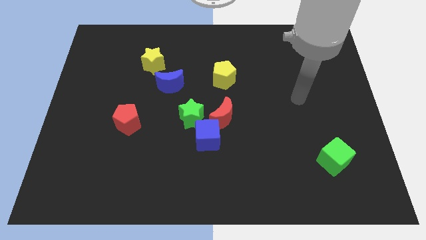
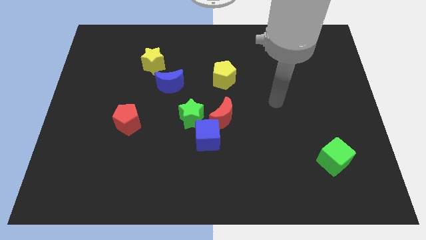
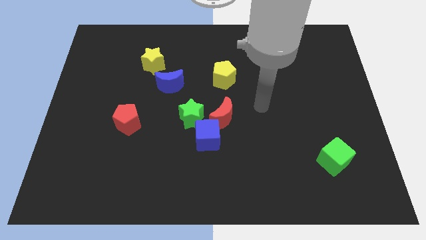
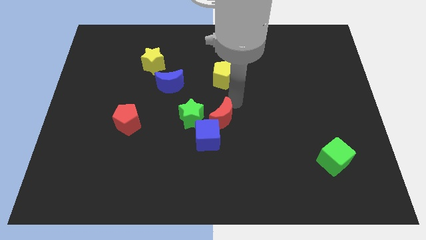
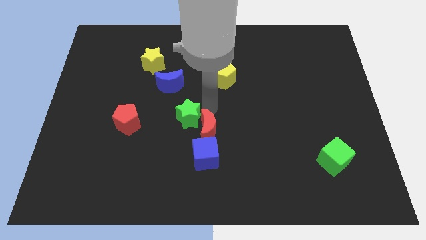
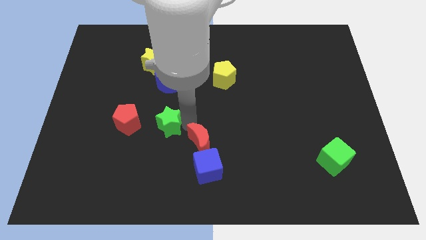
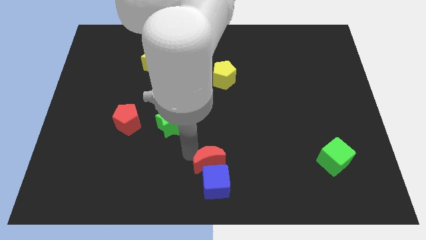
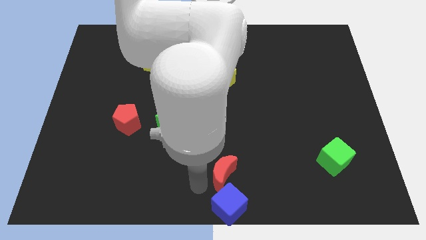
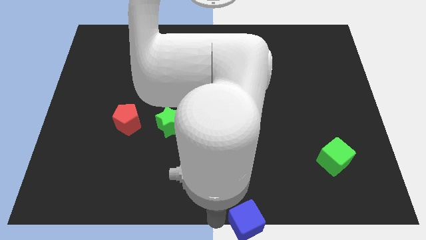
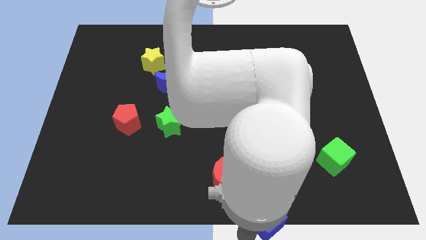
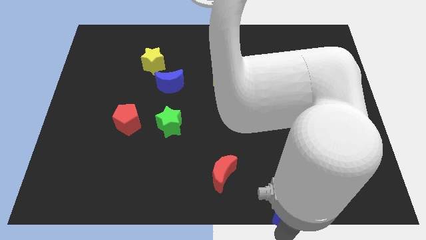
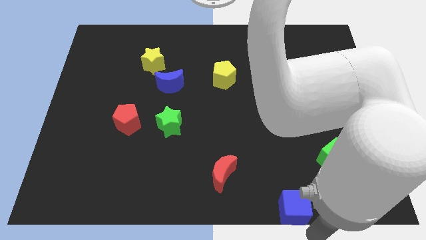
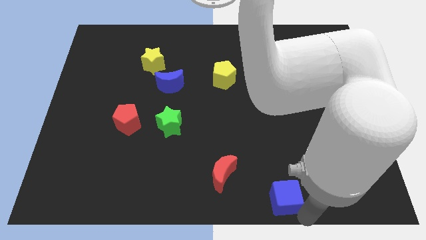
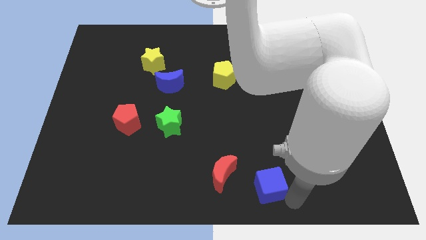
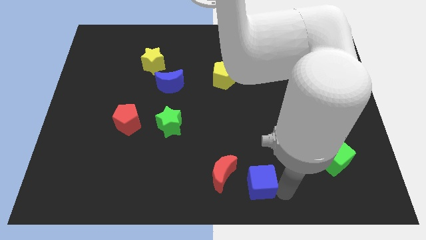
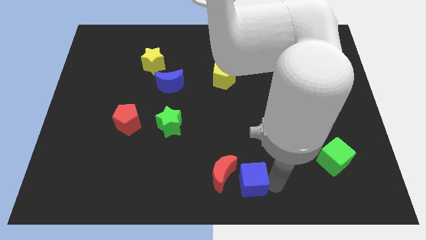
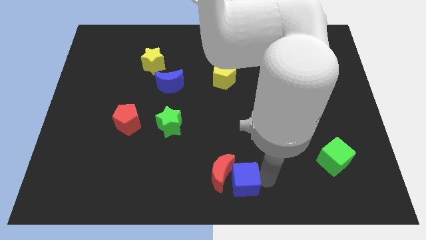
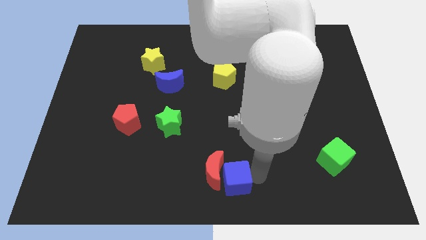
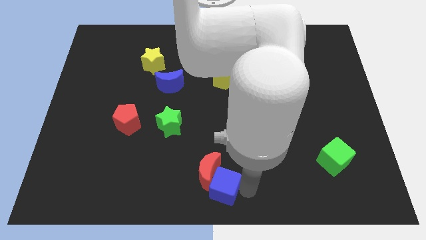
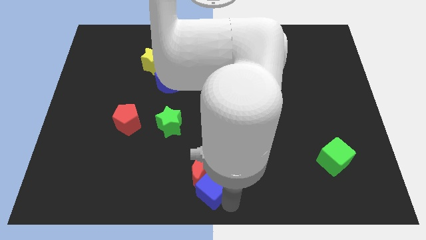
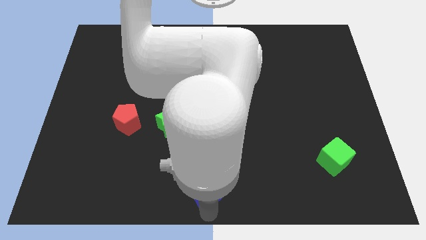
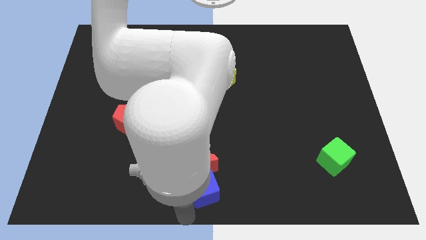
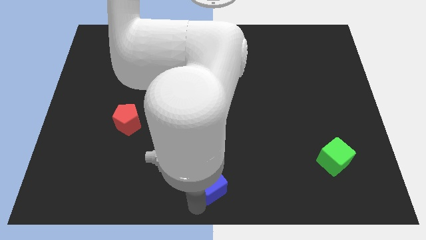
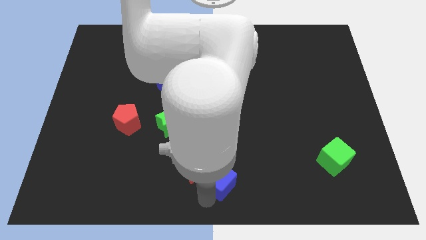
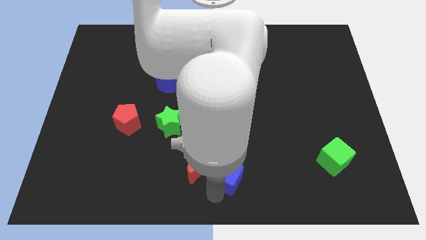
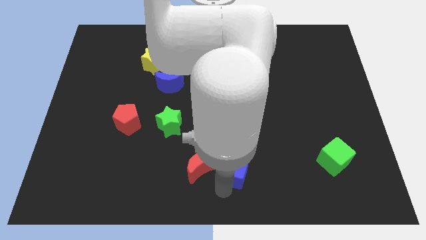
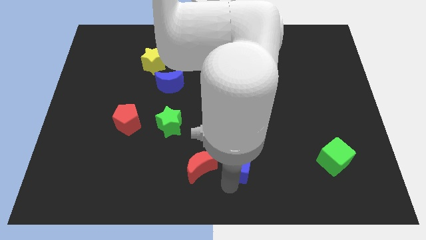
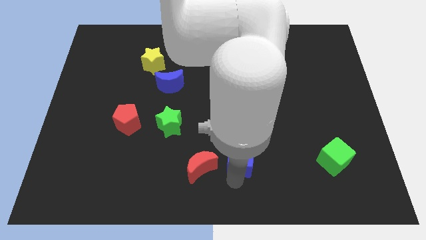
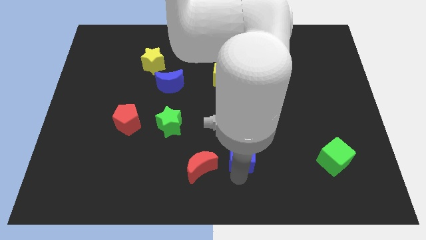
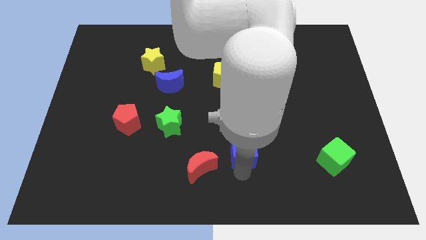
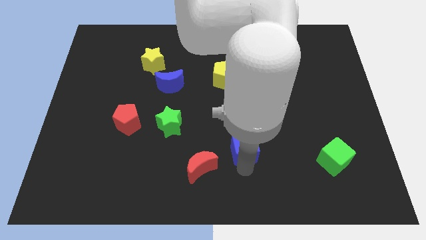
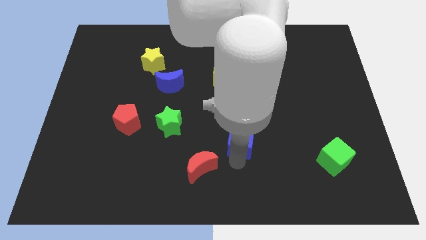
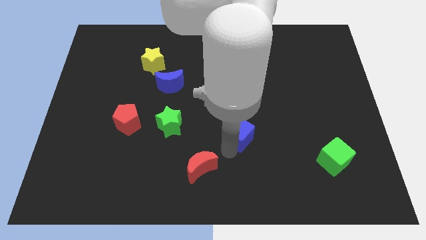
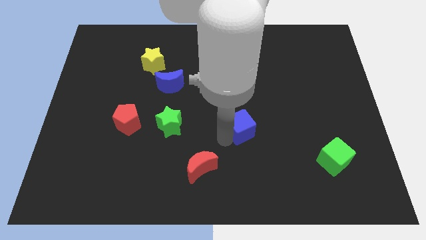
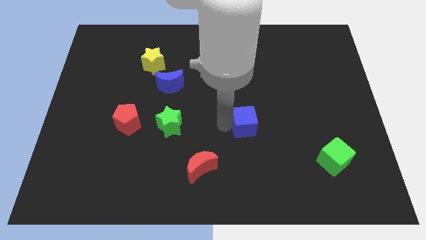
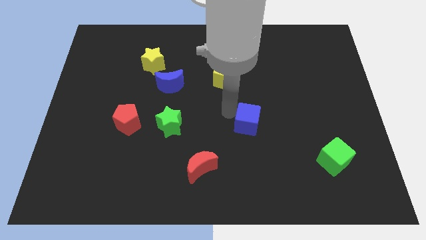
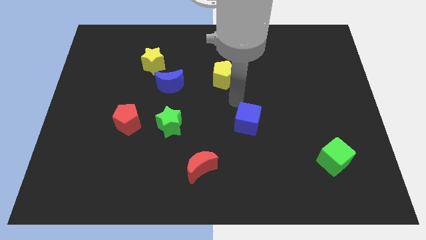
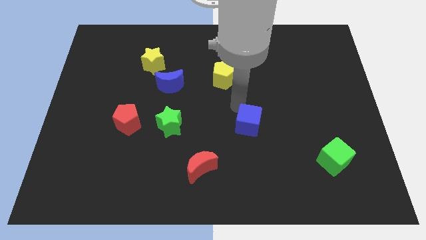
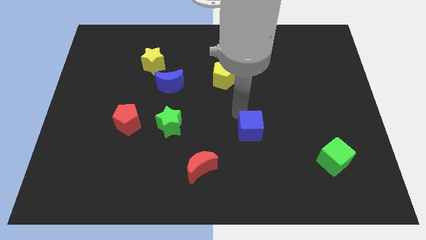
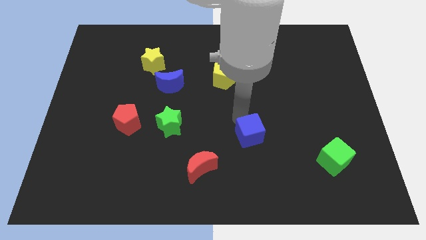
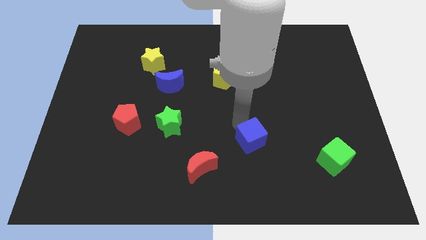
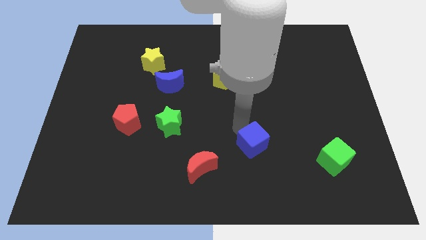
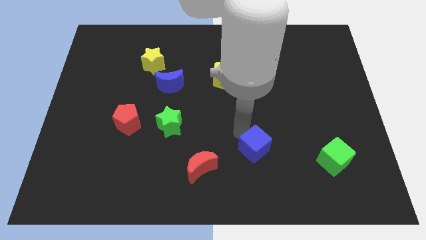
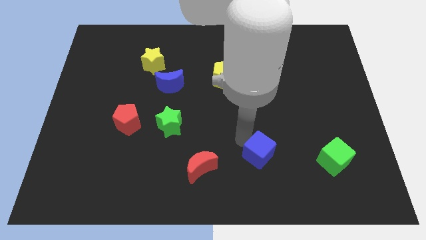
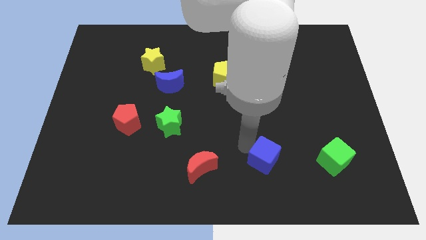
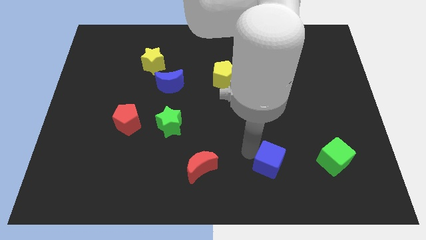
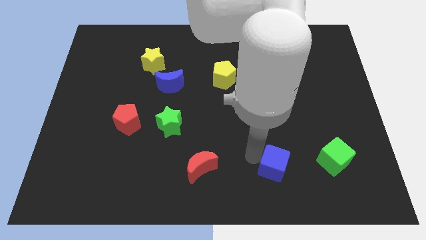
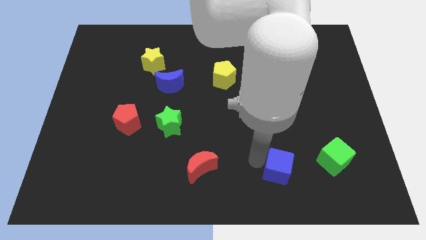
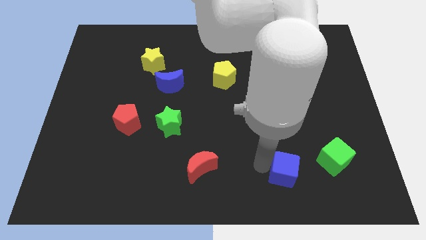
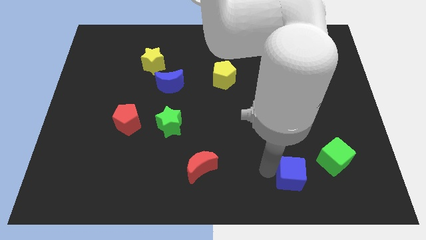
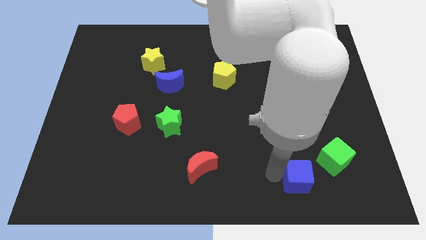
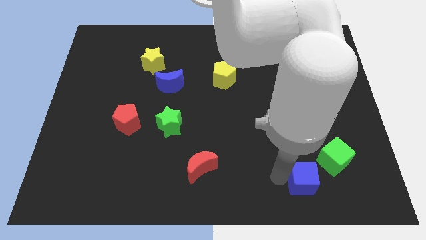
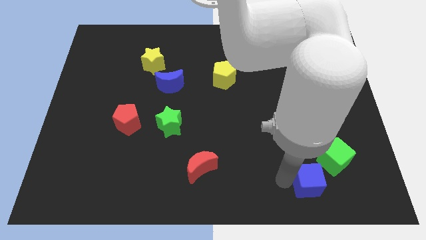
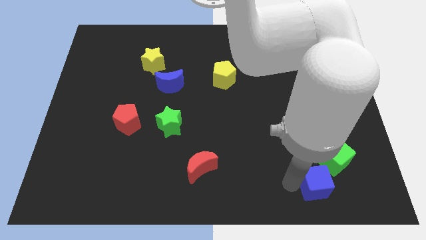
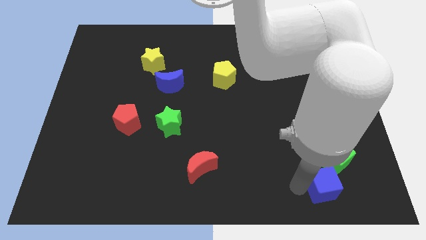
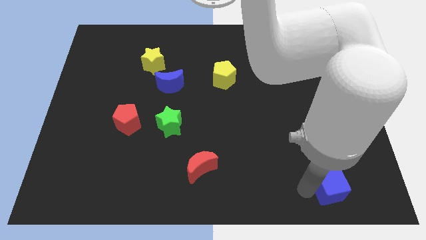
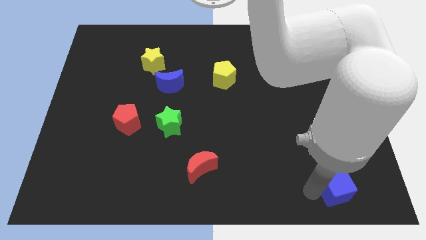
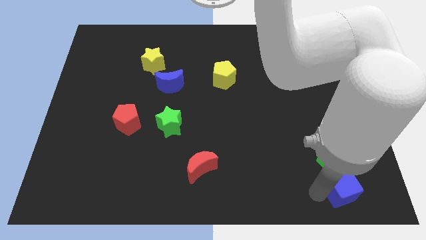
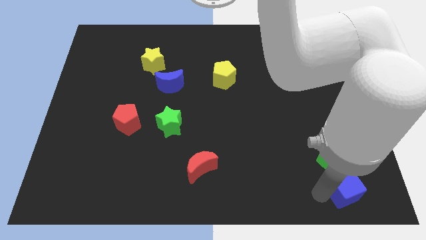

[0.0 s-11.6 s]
slide the blue cube to the bottom right of the board

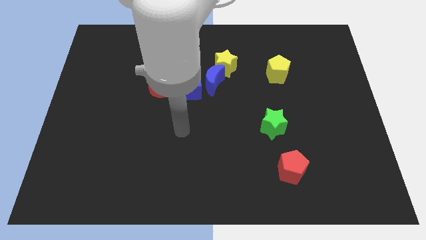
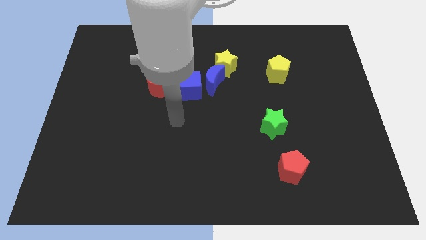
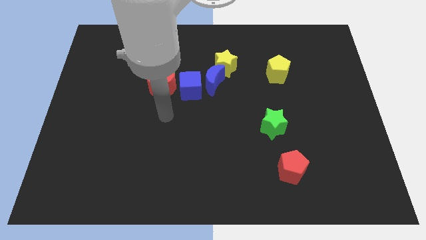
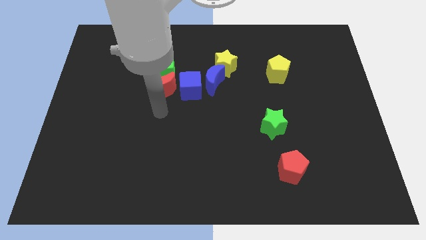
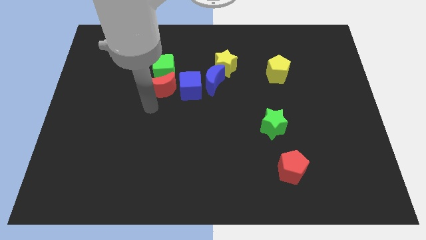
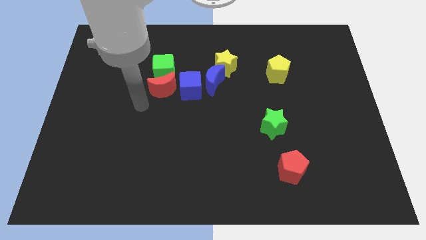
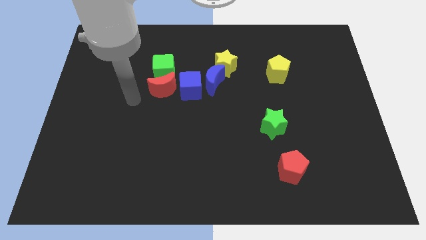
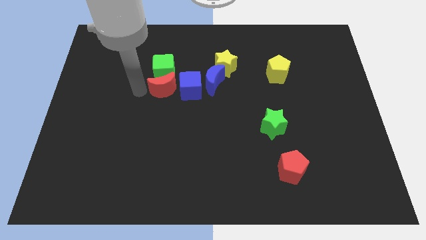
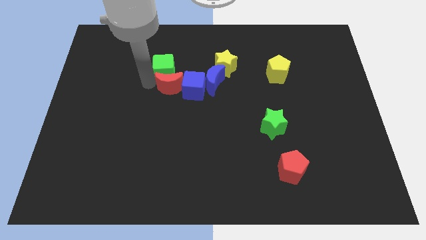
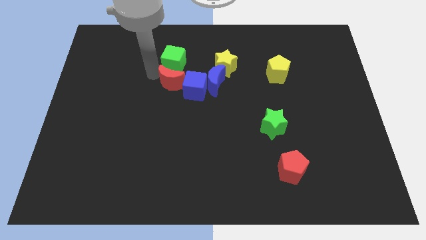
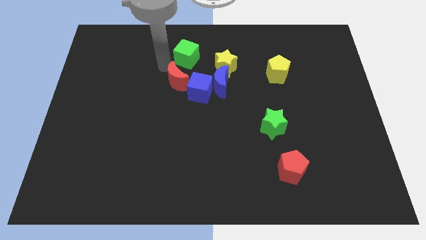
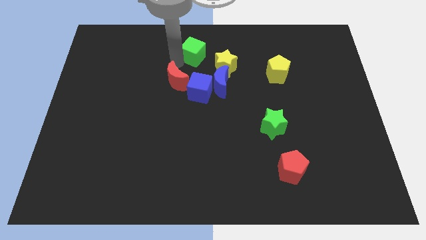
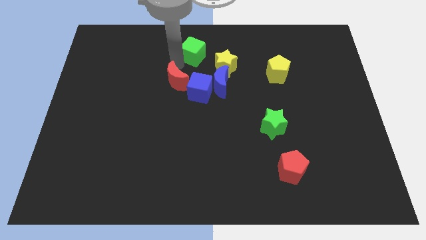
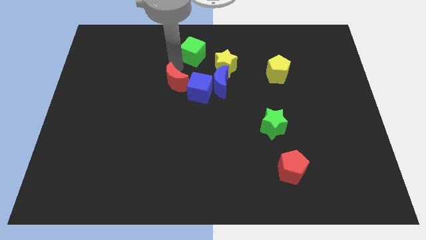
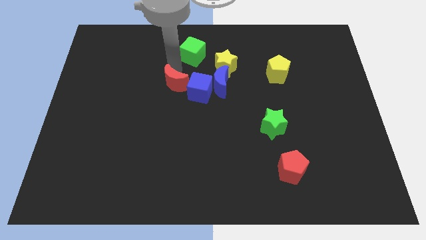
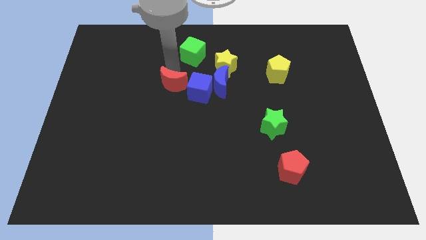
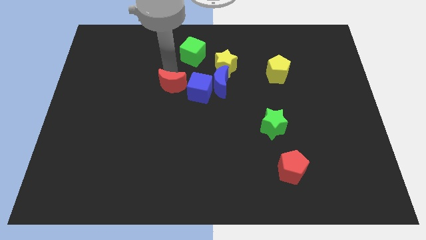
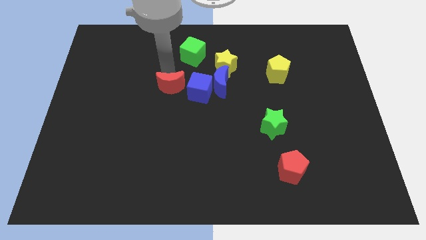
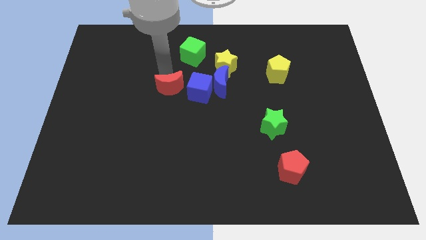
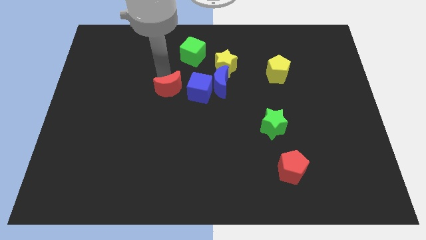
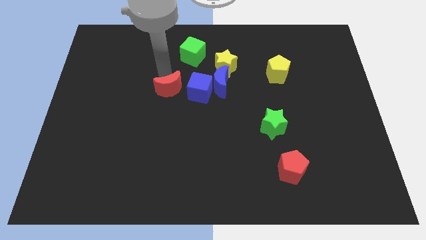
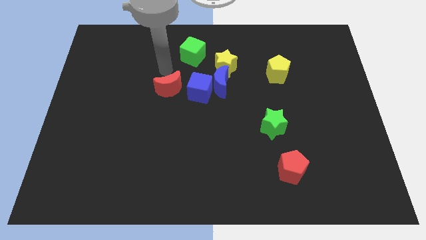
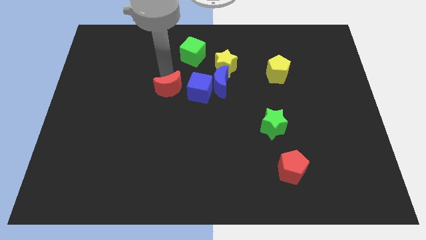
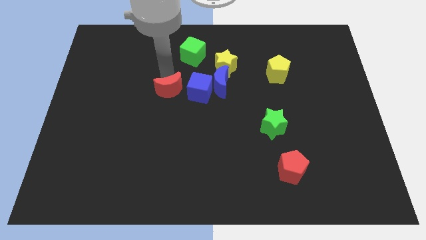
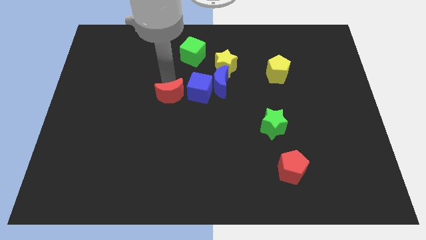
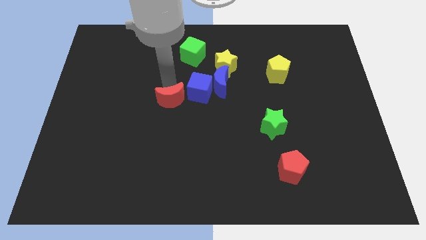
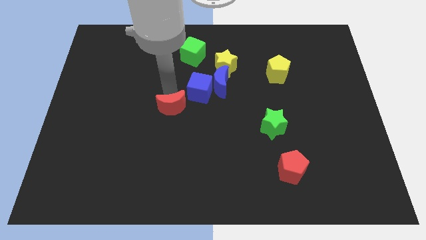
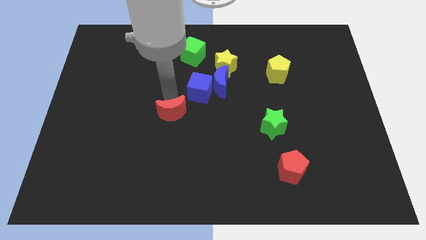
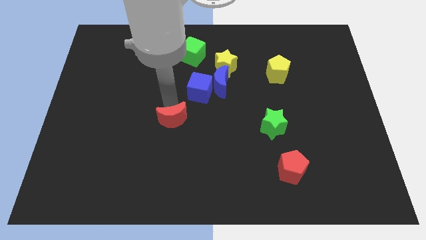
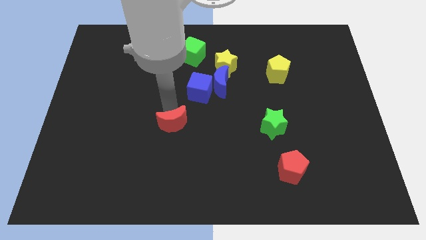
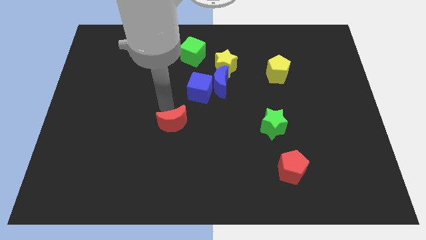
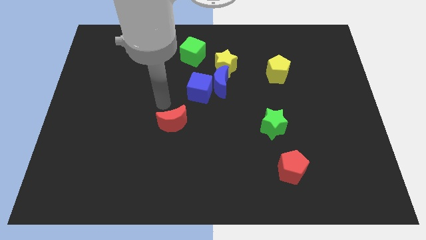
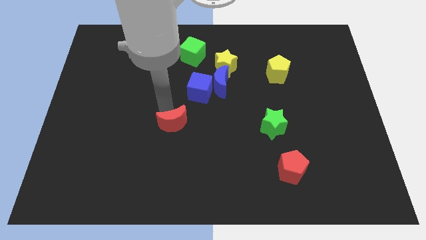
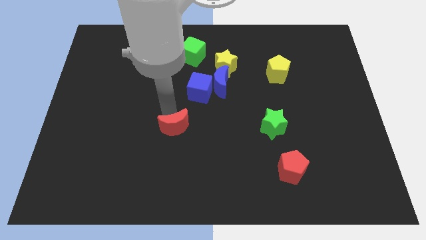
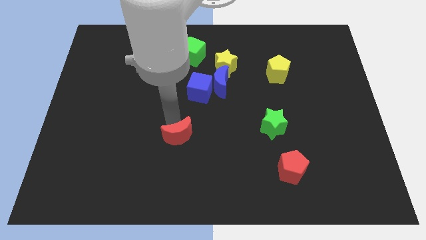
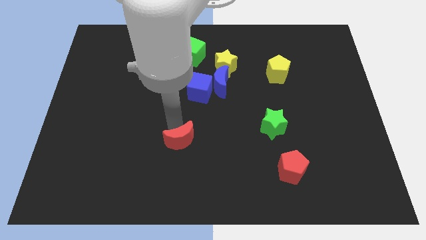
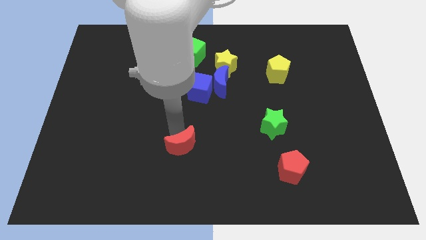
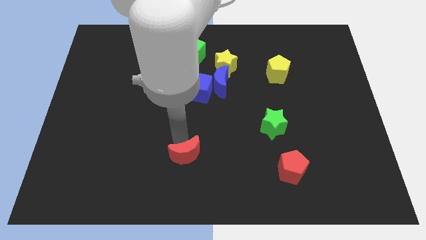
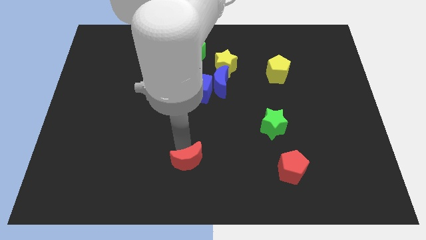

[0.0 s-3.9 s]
slide the red moon to the bottom
